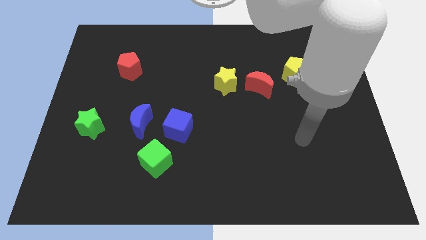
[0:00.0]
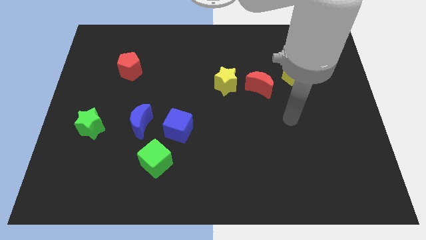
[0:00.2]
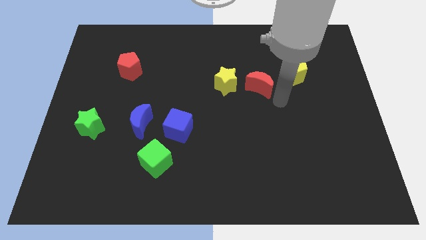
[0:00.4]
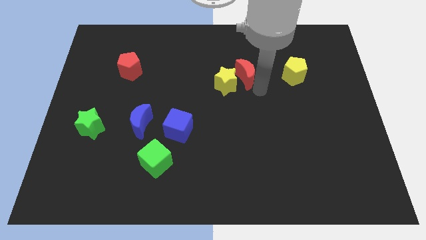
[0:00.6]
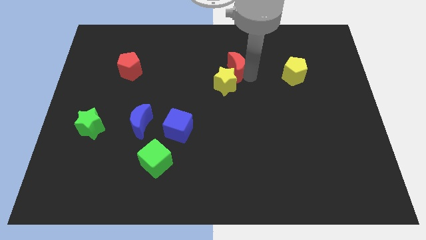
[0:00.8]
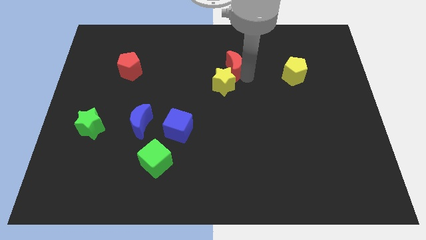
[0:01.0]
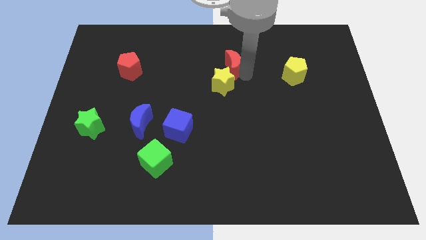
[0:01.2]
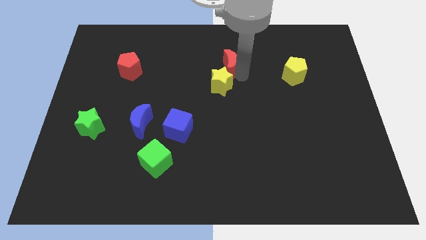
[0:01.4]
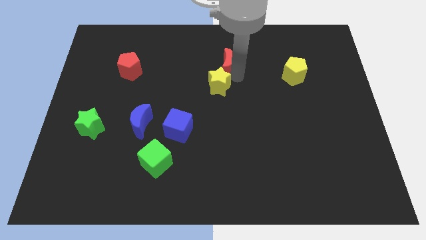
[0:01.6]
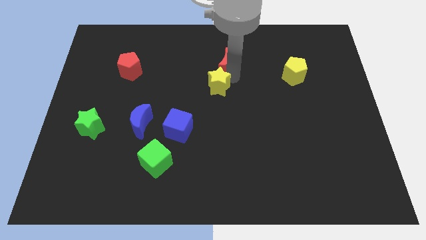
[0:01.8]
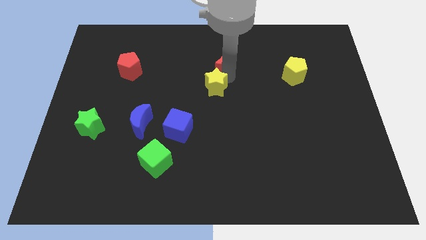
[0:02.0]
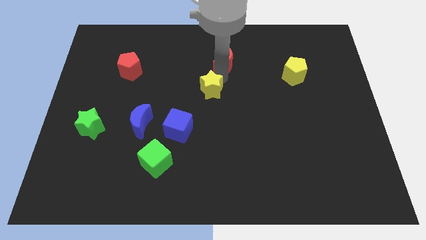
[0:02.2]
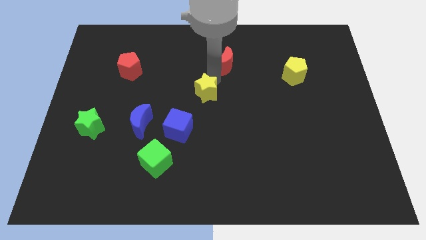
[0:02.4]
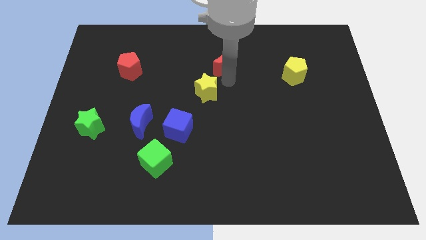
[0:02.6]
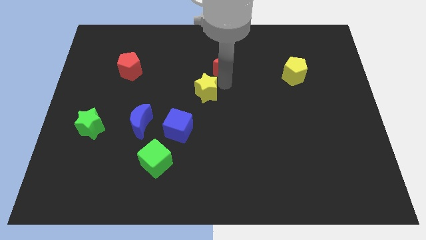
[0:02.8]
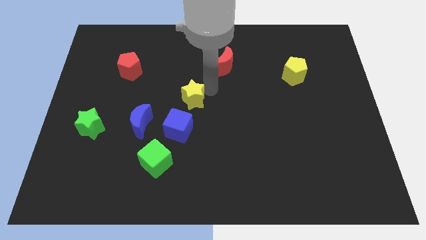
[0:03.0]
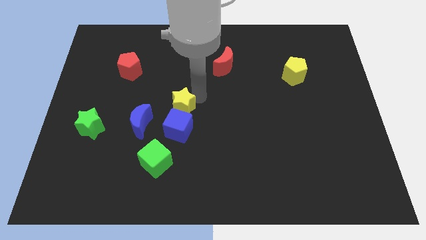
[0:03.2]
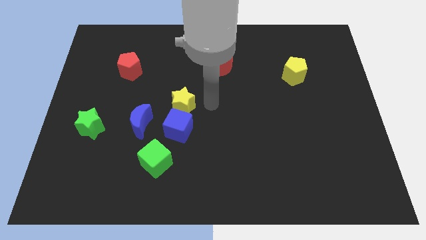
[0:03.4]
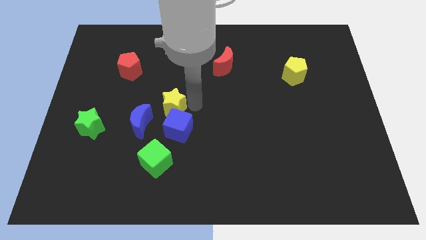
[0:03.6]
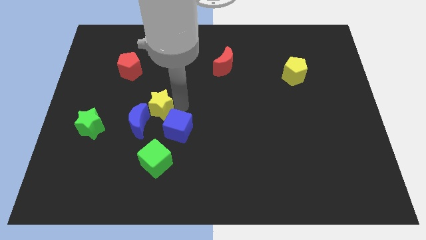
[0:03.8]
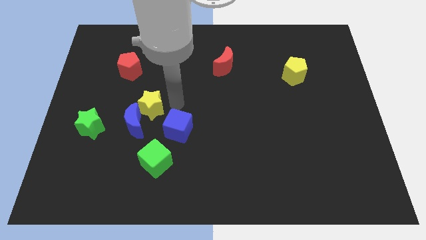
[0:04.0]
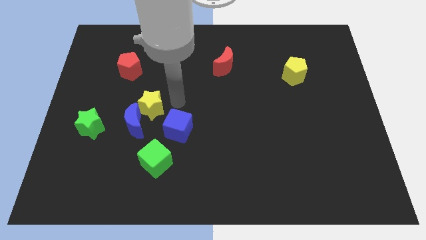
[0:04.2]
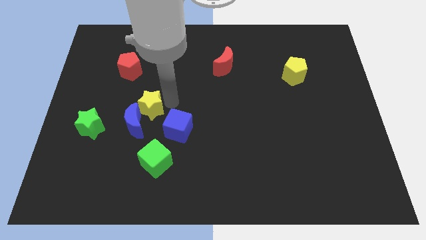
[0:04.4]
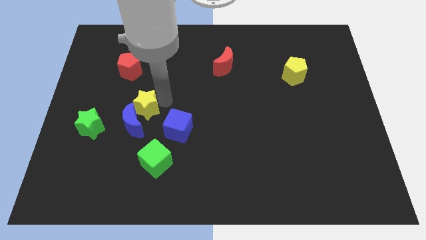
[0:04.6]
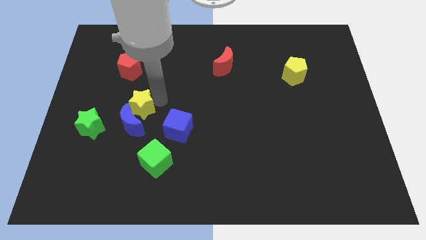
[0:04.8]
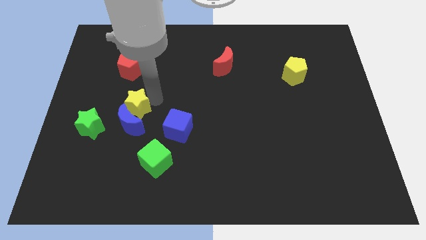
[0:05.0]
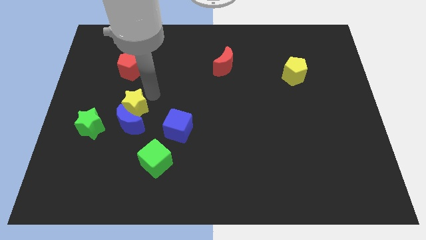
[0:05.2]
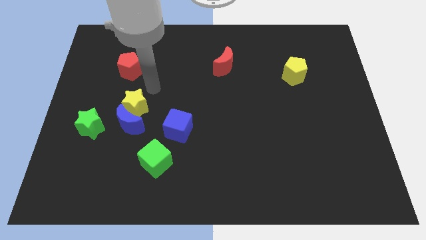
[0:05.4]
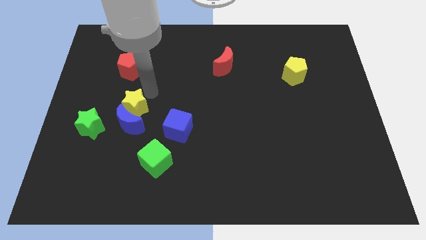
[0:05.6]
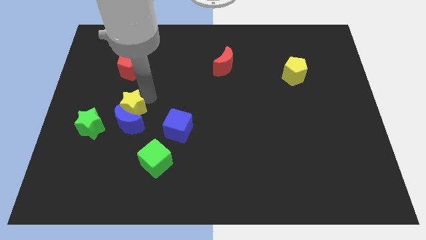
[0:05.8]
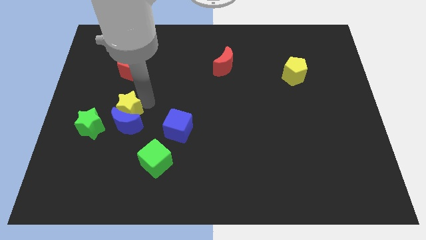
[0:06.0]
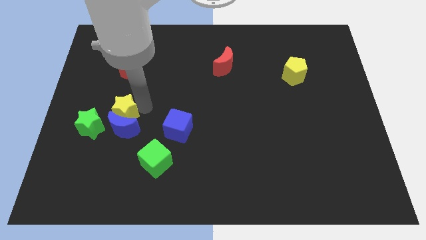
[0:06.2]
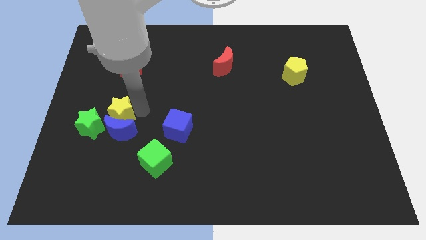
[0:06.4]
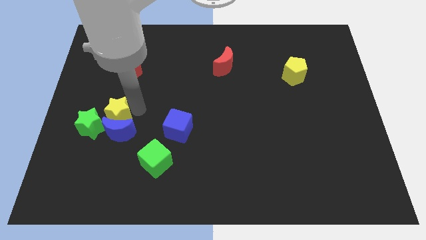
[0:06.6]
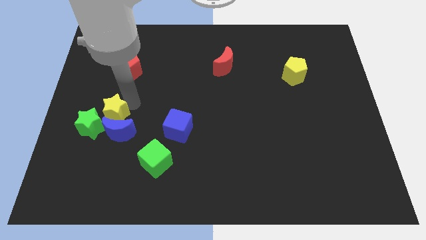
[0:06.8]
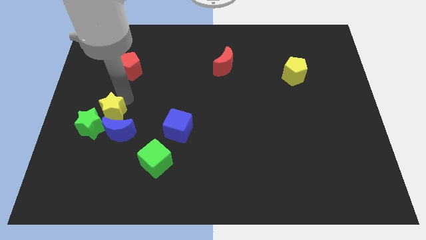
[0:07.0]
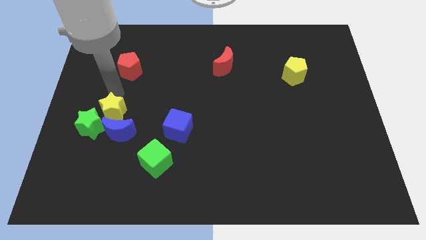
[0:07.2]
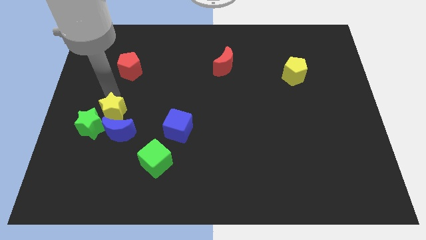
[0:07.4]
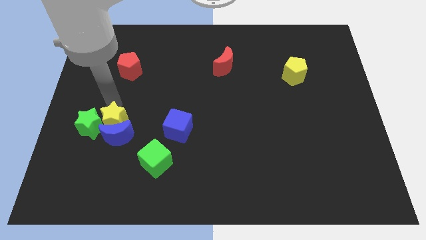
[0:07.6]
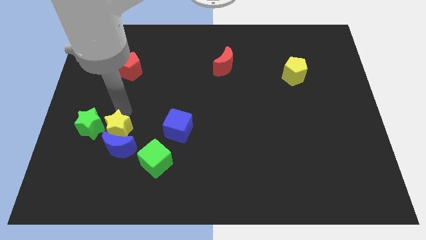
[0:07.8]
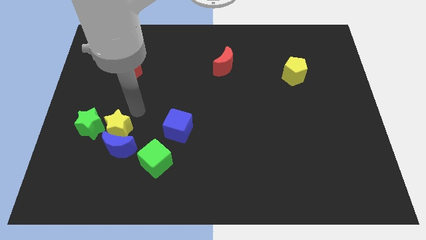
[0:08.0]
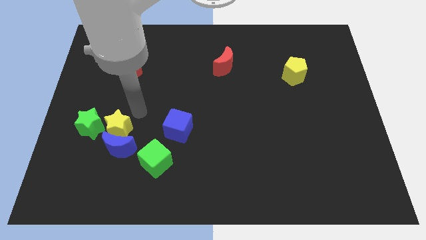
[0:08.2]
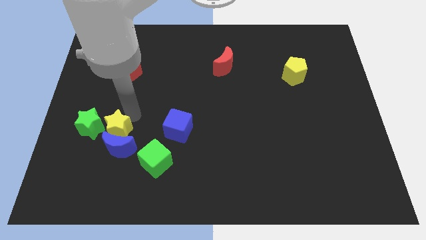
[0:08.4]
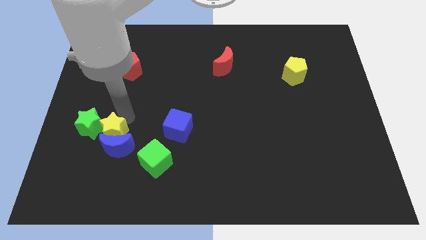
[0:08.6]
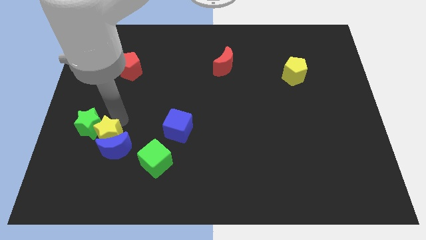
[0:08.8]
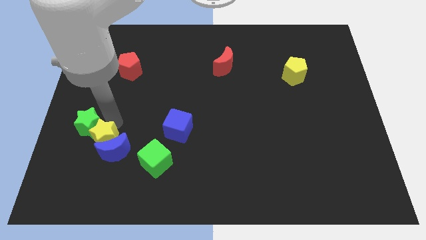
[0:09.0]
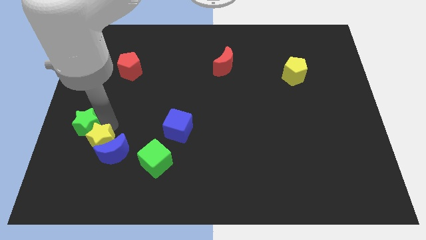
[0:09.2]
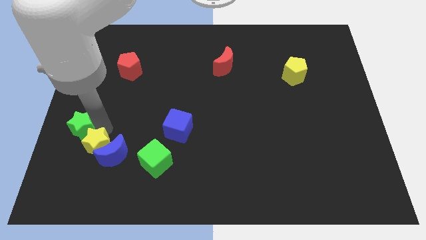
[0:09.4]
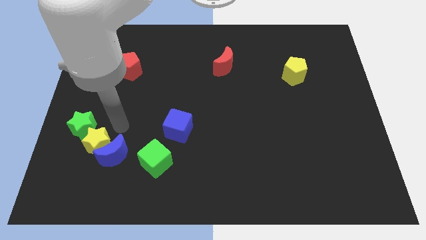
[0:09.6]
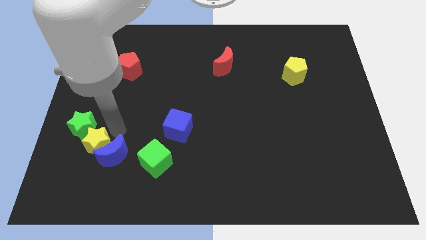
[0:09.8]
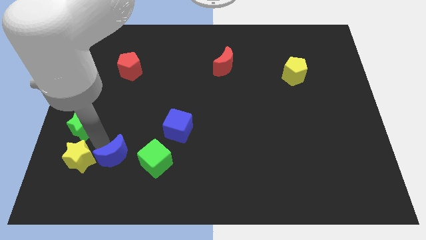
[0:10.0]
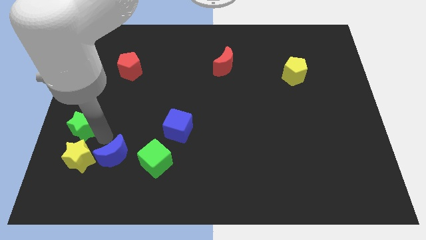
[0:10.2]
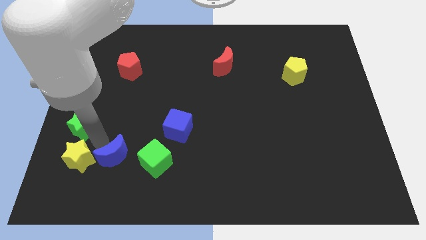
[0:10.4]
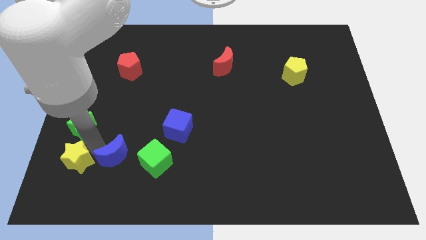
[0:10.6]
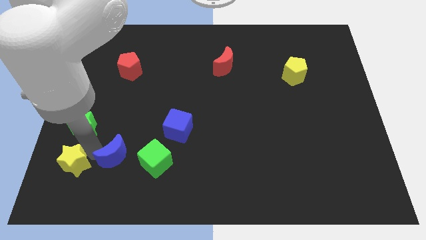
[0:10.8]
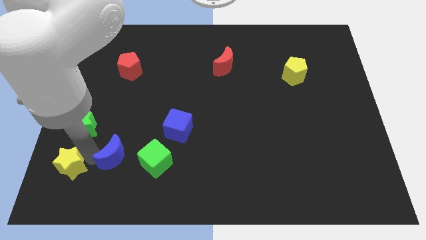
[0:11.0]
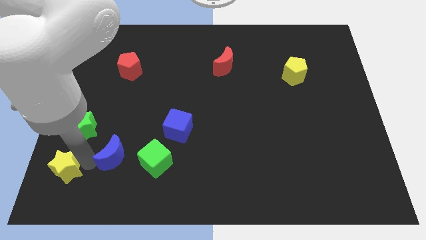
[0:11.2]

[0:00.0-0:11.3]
slide the yellow star to the bottom left of the board

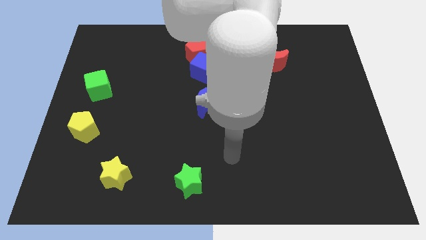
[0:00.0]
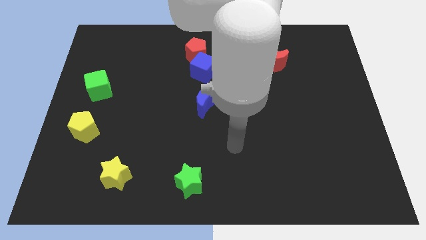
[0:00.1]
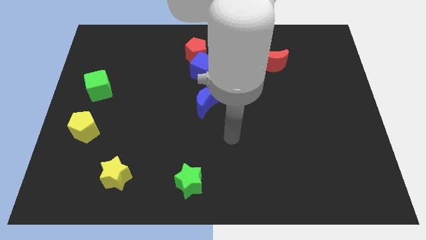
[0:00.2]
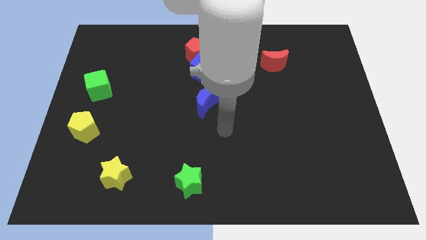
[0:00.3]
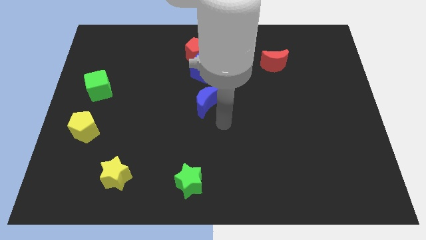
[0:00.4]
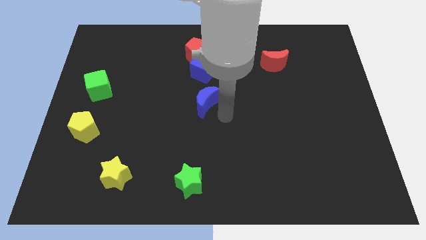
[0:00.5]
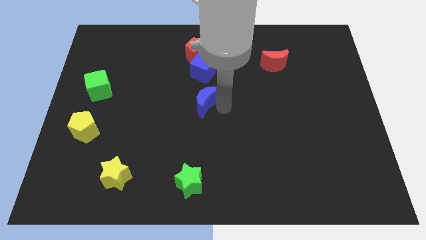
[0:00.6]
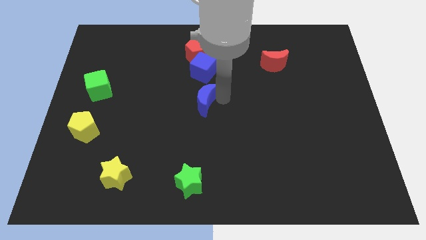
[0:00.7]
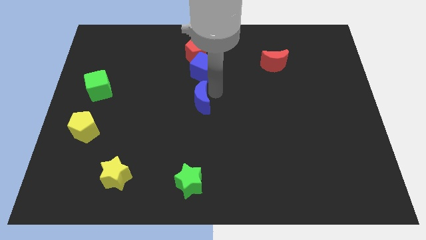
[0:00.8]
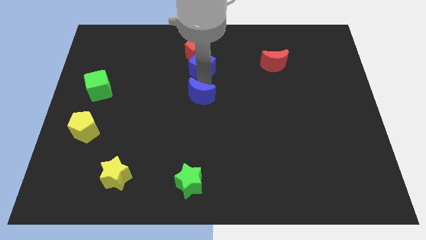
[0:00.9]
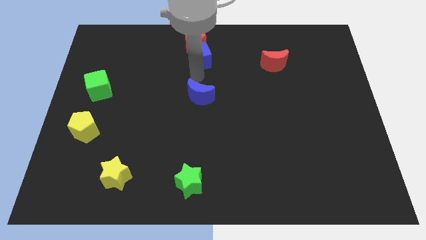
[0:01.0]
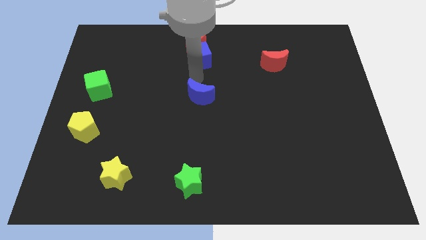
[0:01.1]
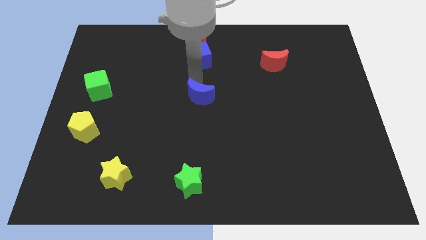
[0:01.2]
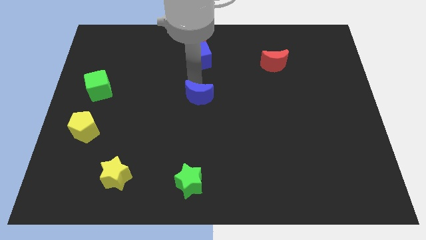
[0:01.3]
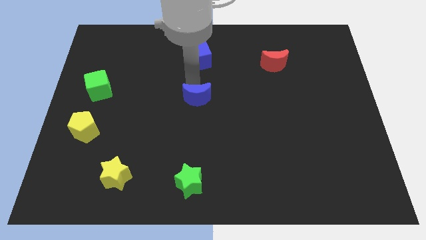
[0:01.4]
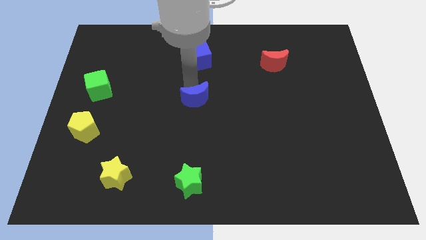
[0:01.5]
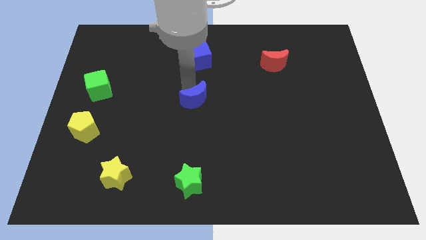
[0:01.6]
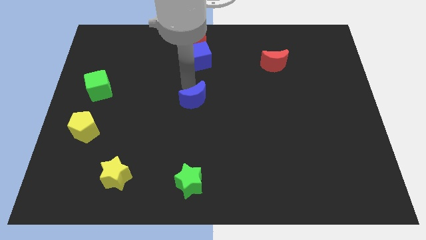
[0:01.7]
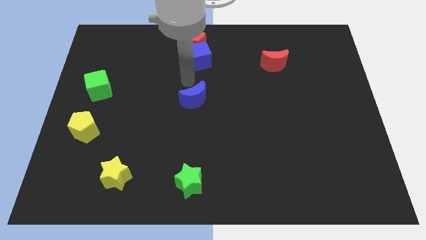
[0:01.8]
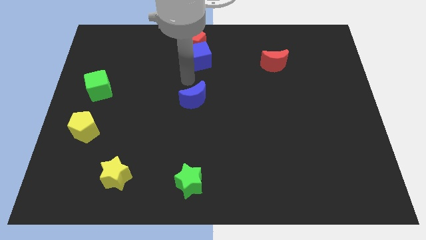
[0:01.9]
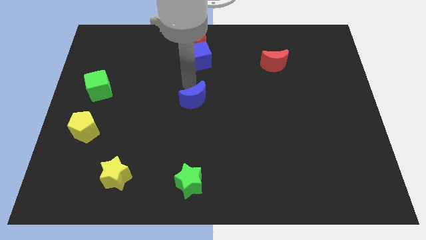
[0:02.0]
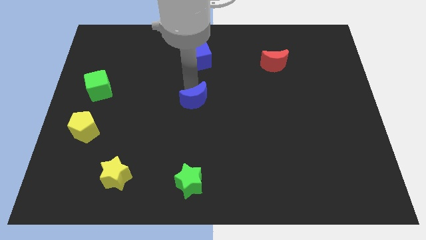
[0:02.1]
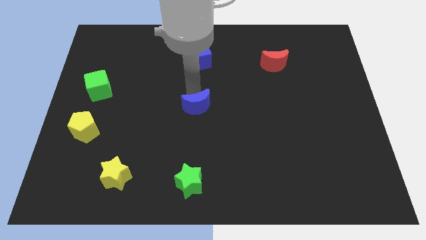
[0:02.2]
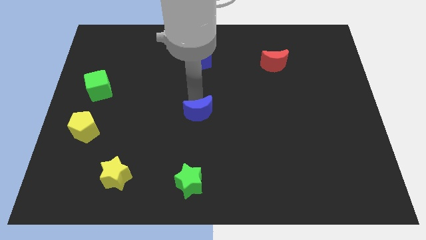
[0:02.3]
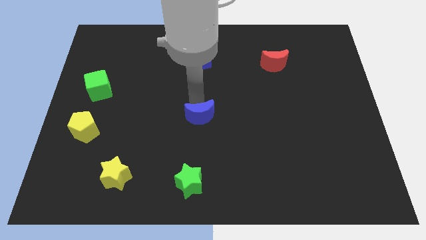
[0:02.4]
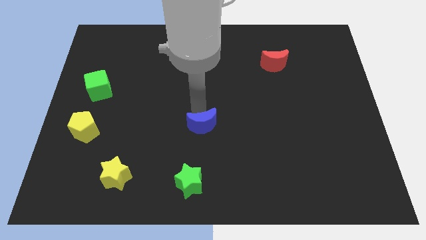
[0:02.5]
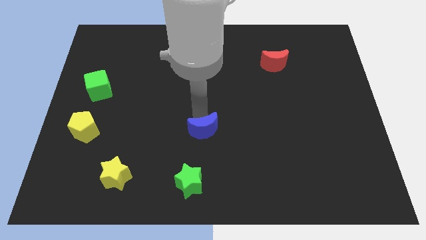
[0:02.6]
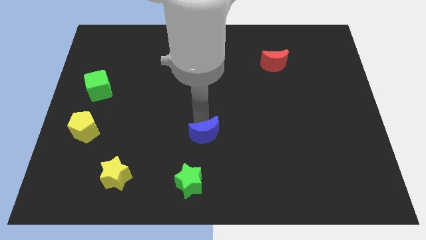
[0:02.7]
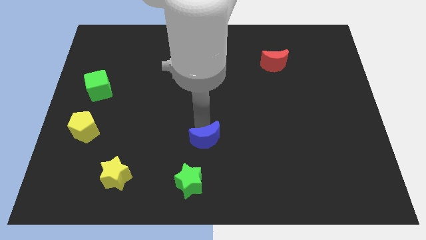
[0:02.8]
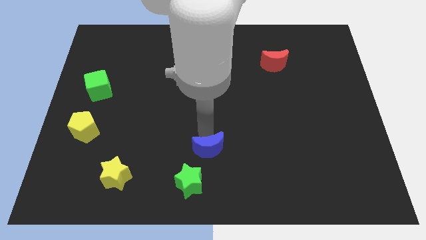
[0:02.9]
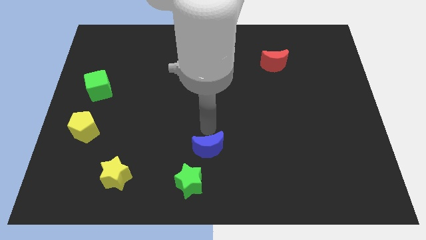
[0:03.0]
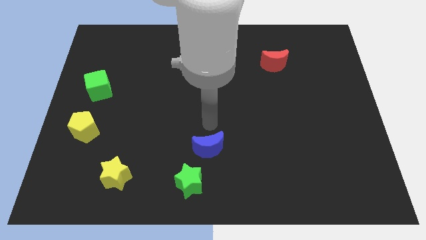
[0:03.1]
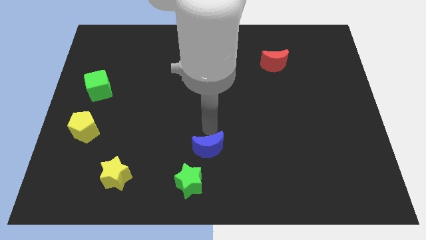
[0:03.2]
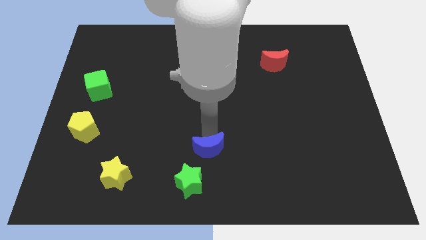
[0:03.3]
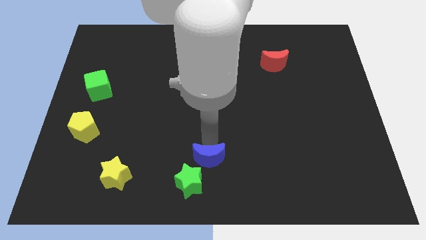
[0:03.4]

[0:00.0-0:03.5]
slide the blue moon to the bottom
